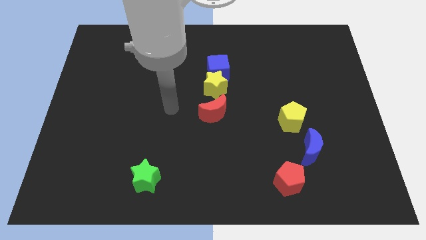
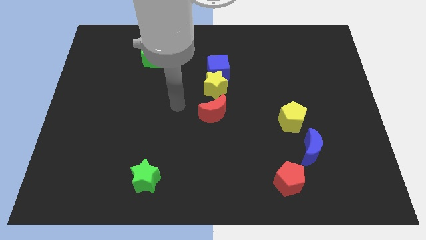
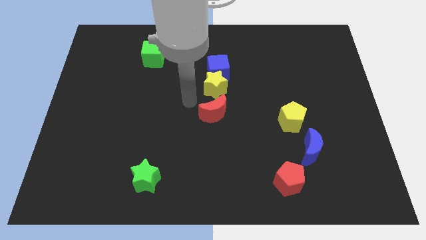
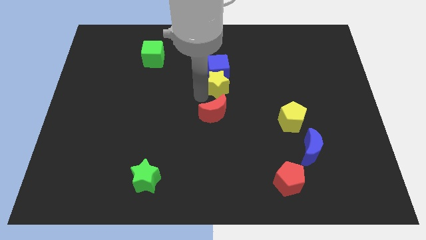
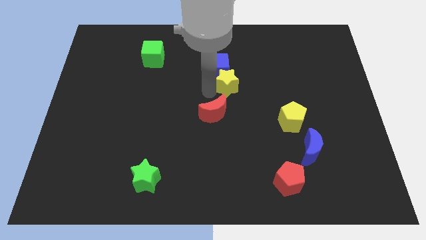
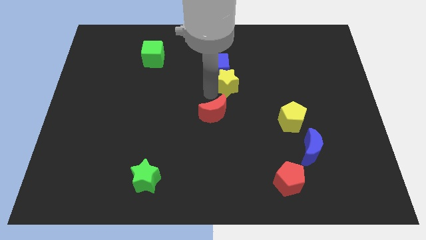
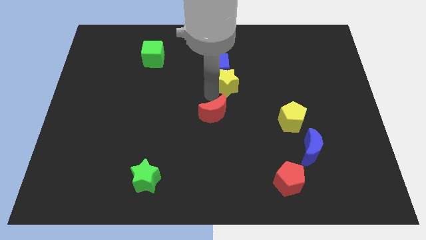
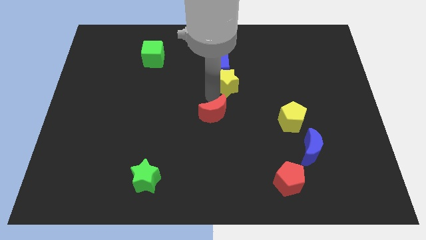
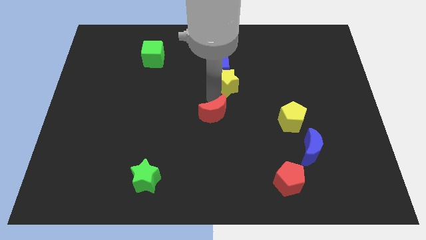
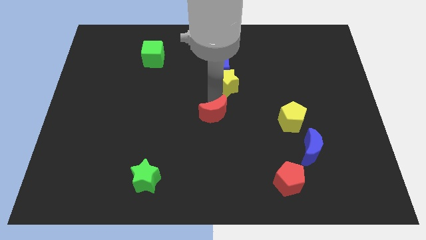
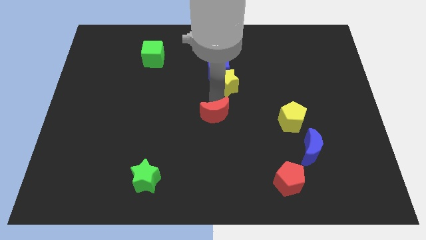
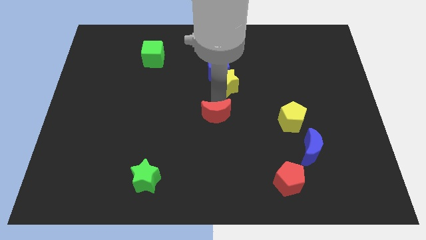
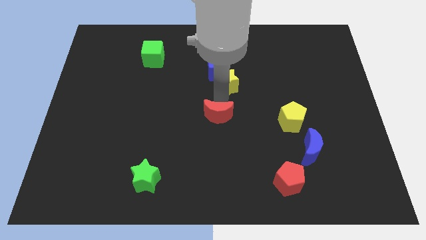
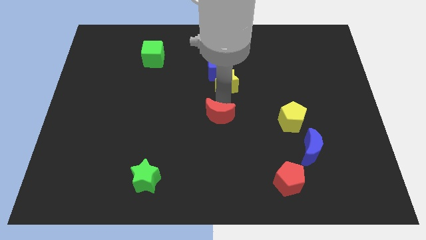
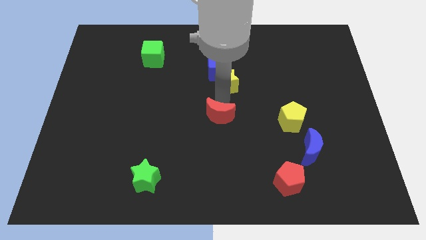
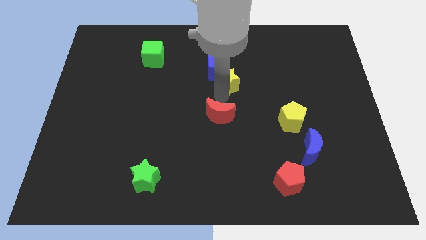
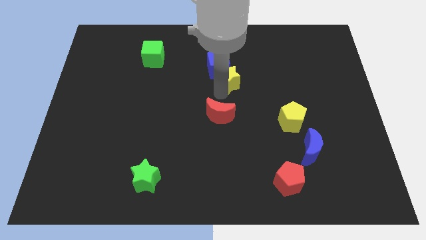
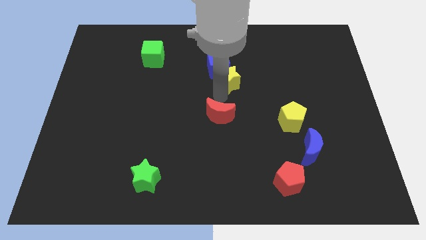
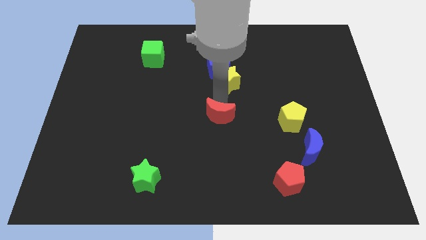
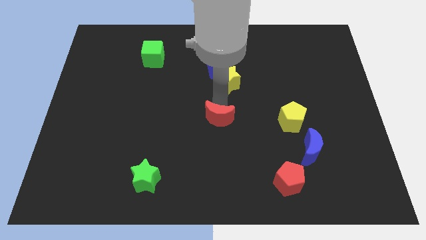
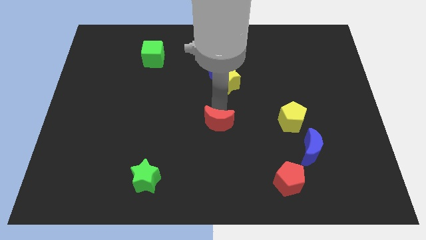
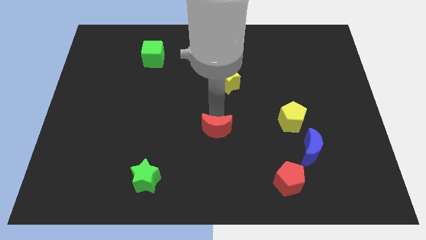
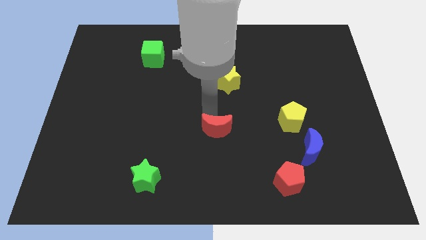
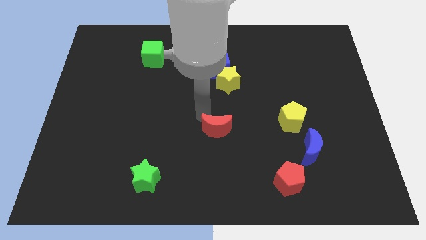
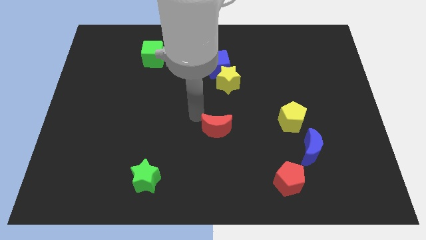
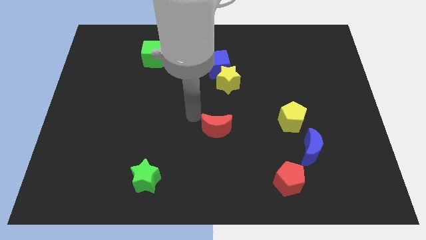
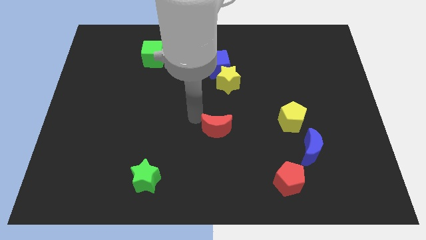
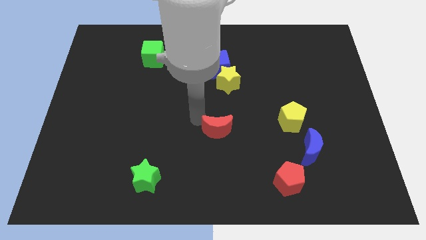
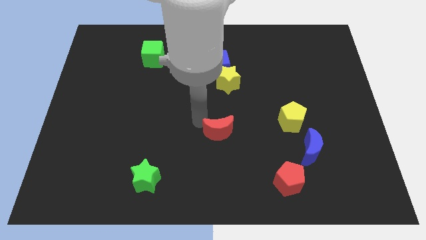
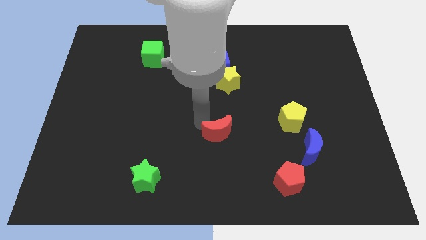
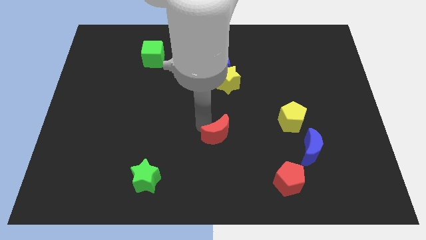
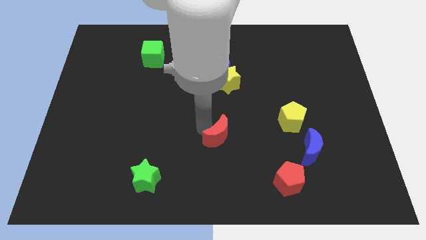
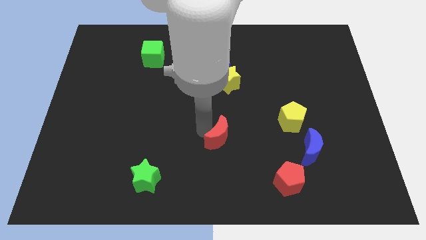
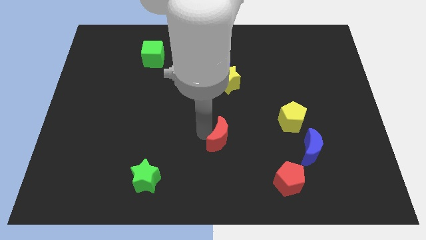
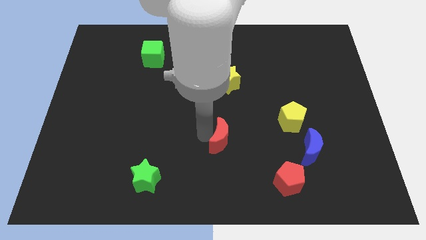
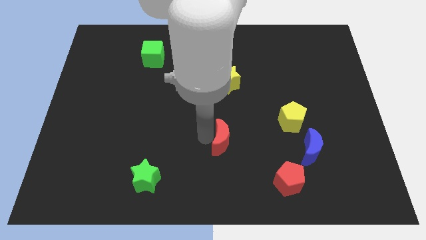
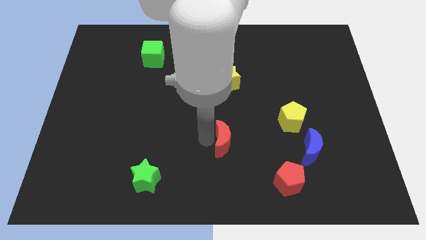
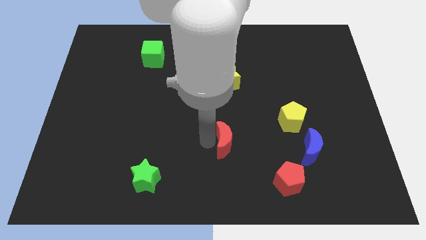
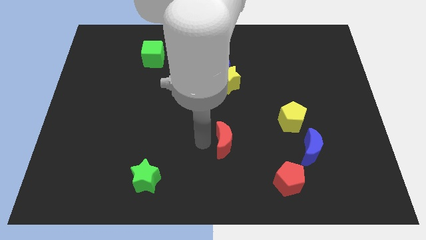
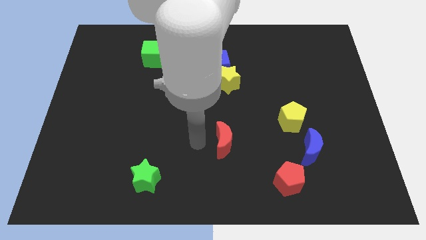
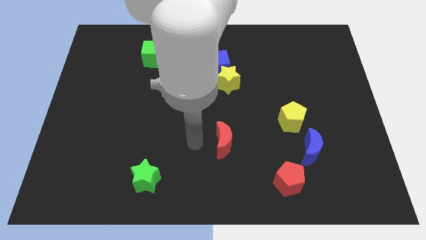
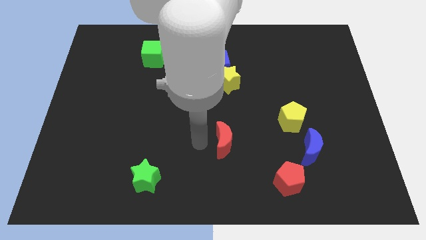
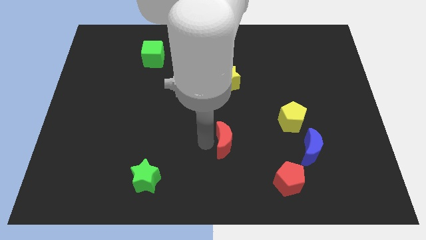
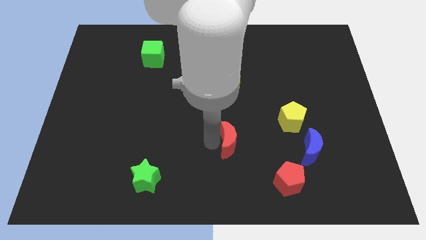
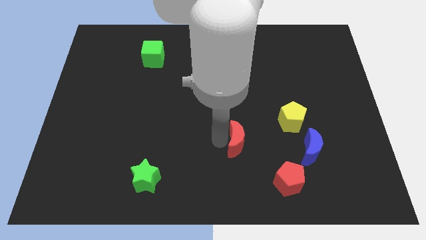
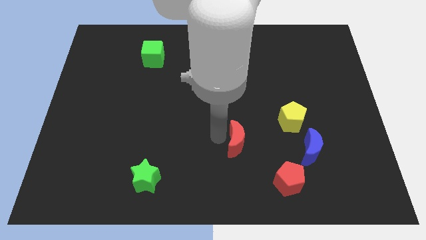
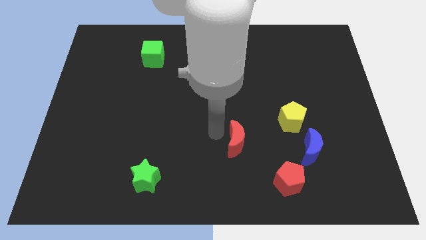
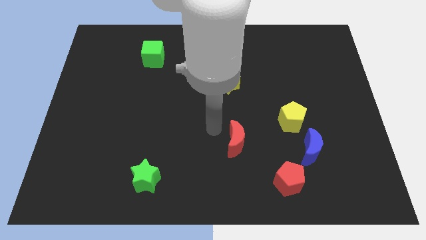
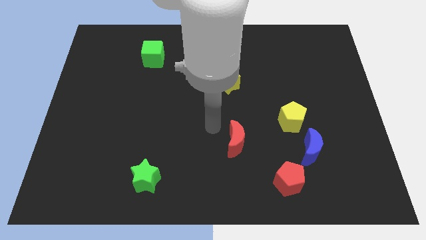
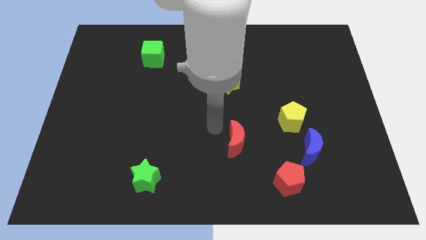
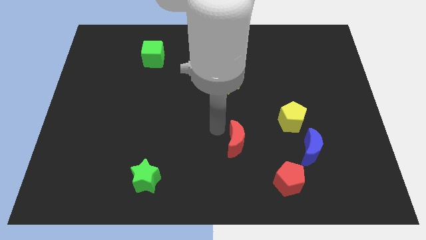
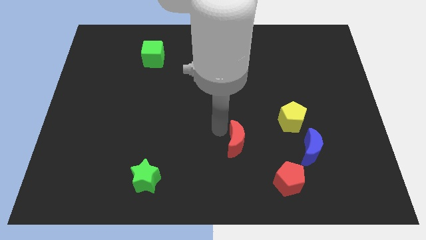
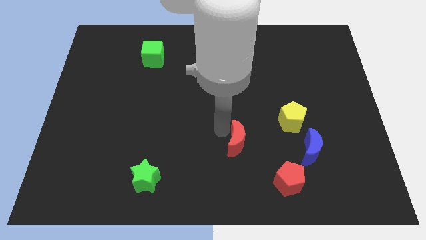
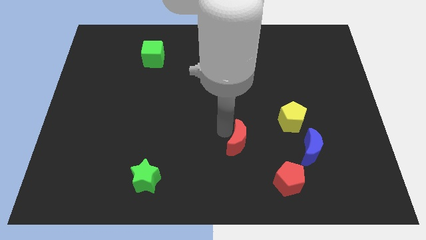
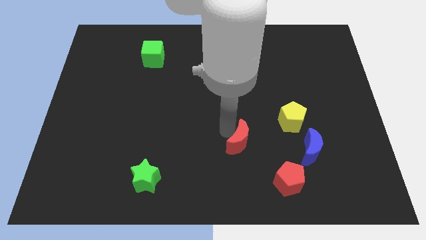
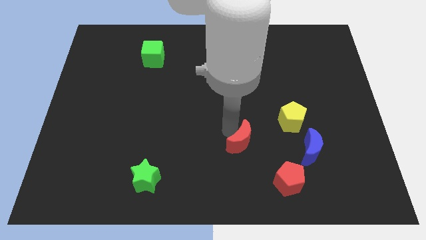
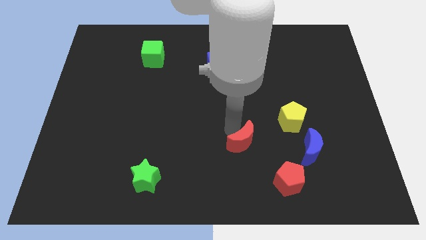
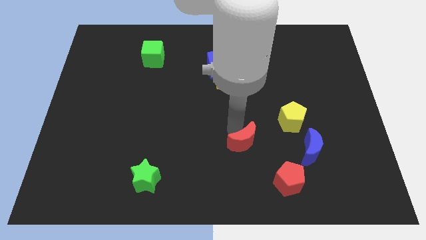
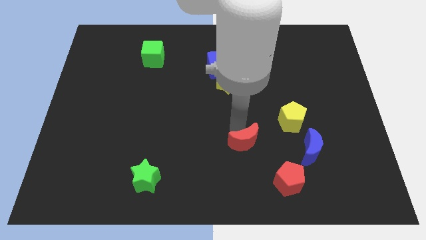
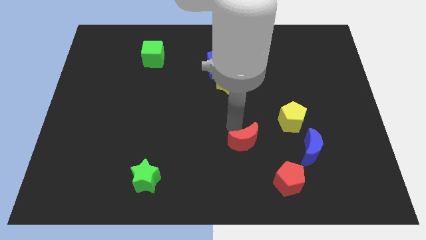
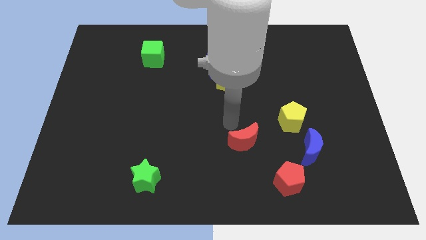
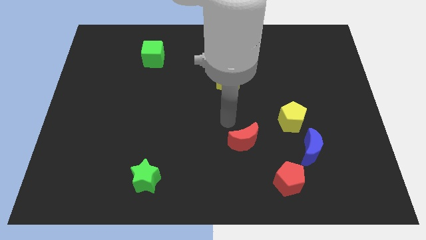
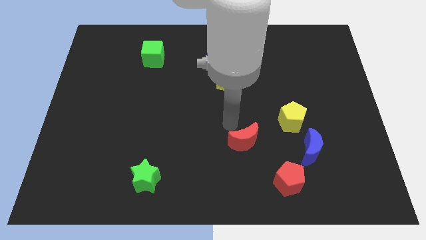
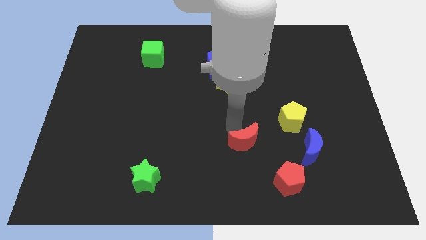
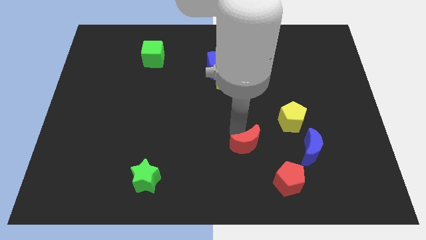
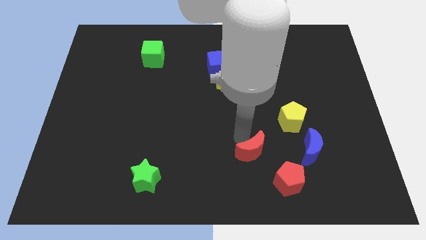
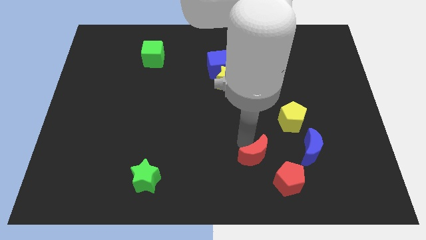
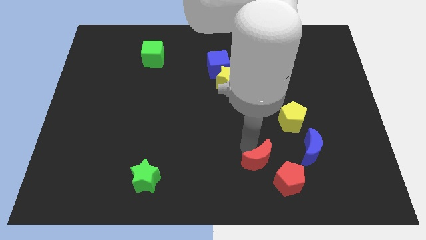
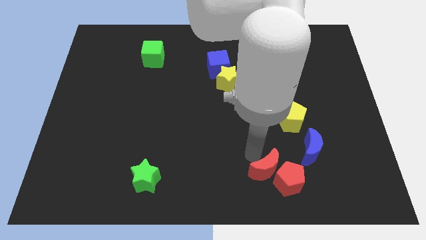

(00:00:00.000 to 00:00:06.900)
slide the red moon next to the red pentagon
